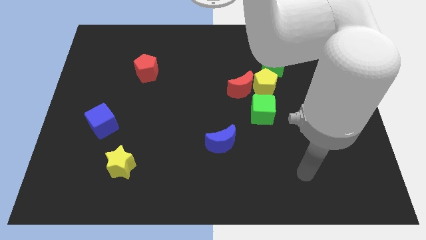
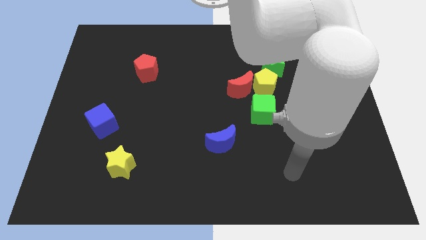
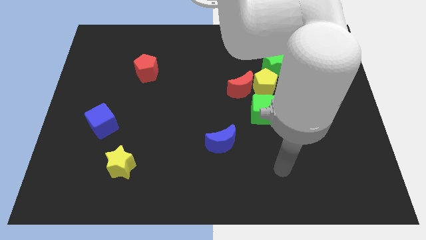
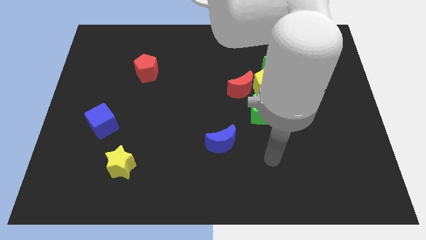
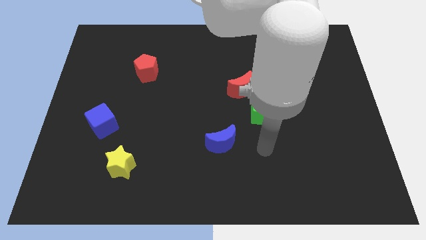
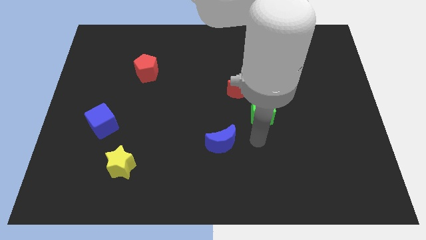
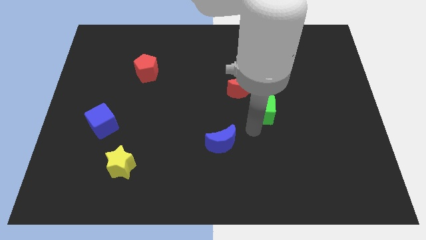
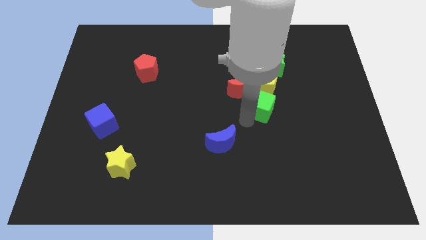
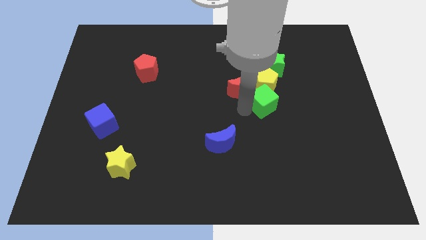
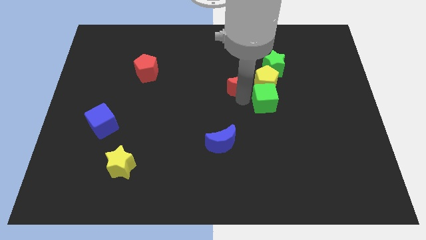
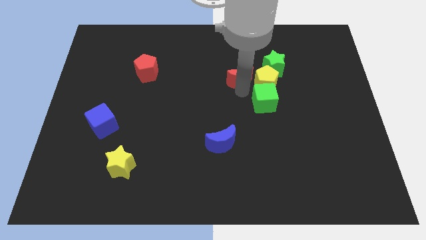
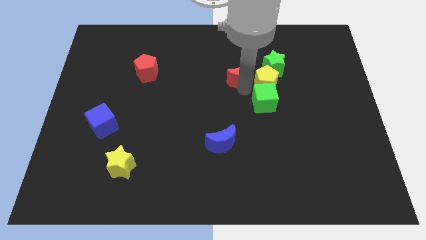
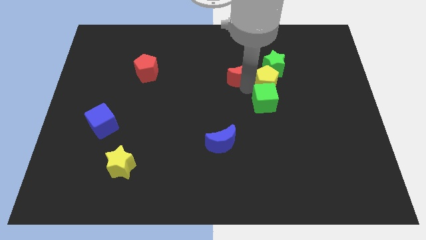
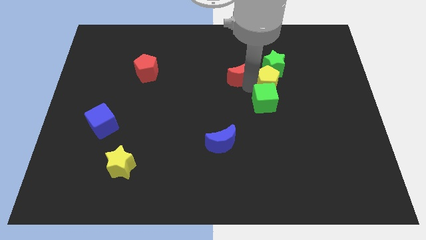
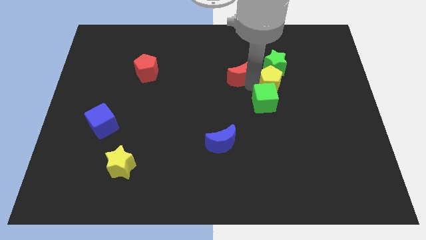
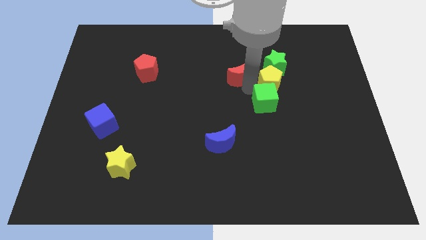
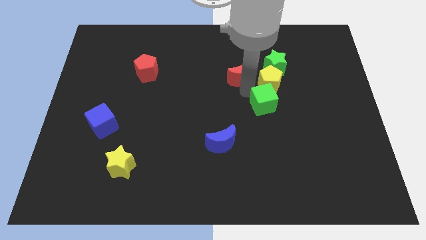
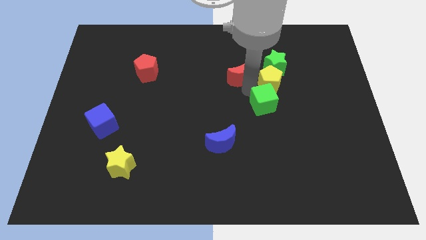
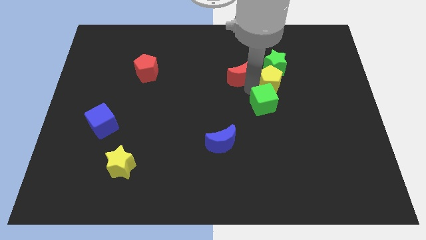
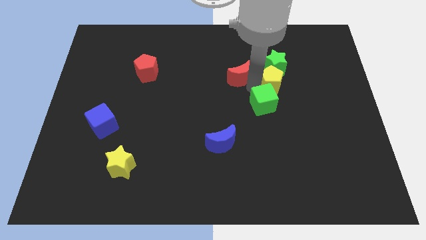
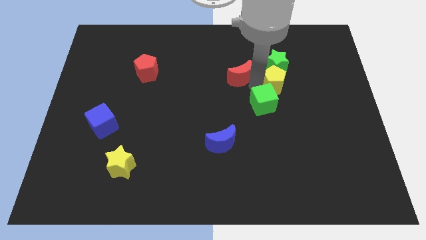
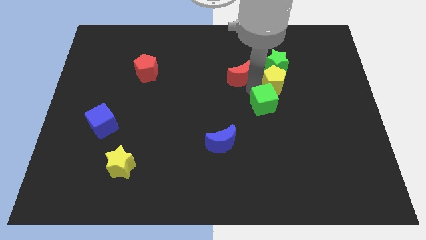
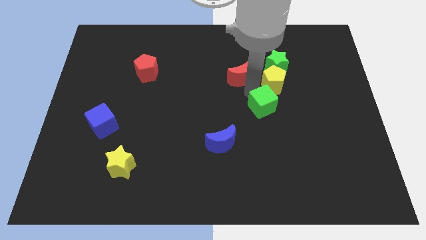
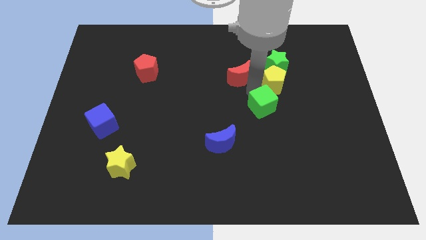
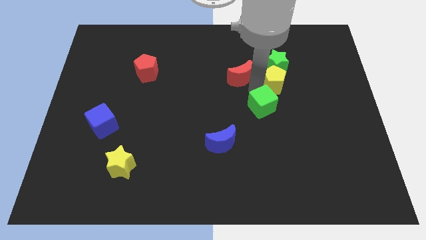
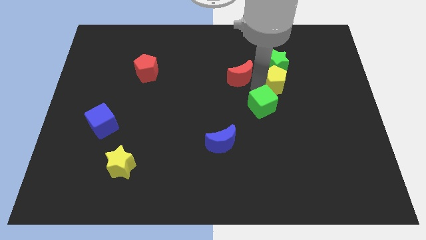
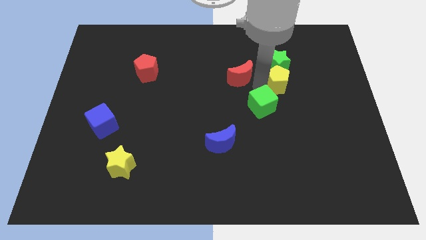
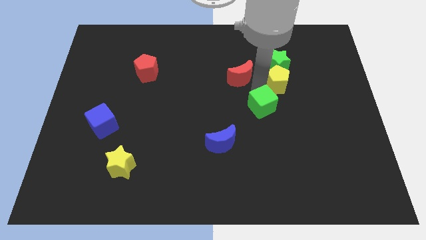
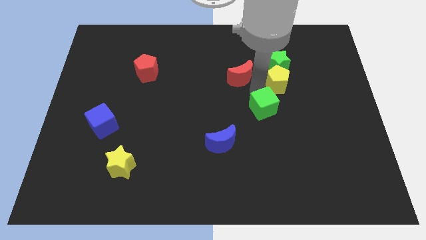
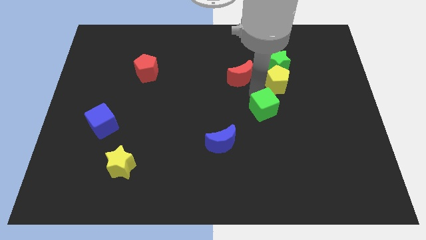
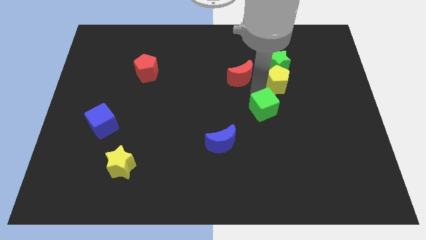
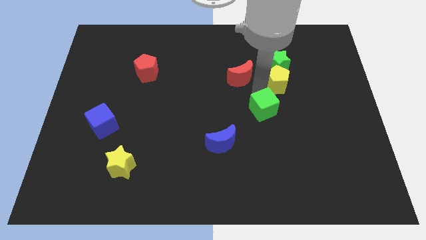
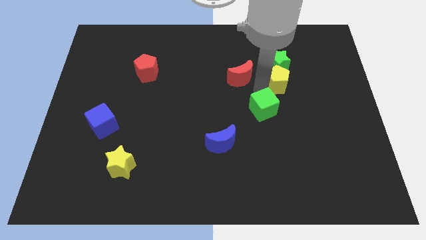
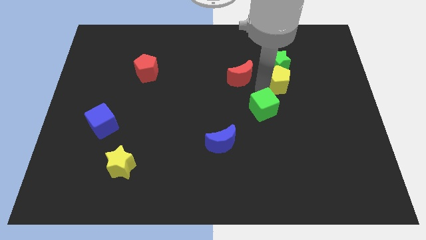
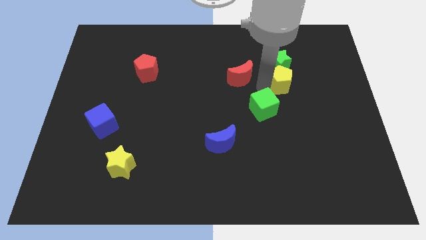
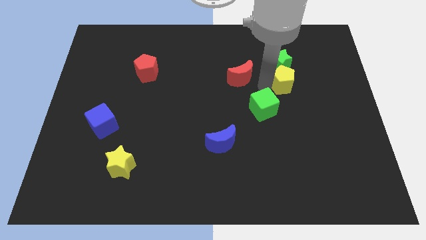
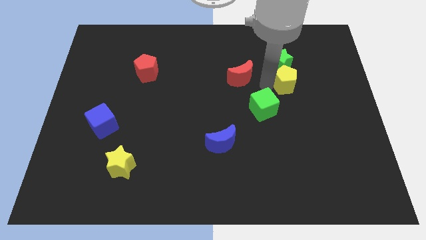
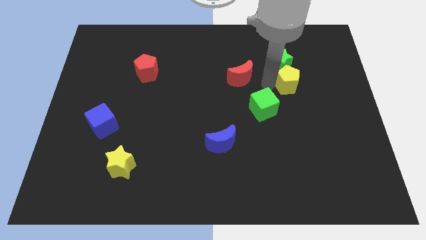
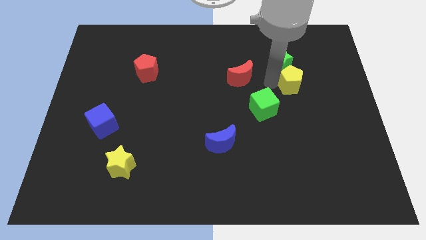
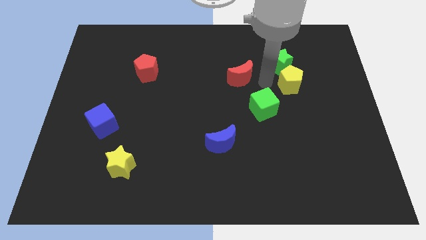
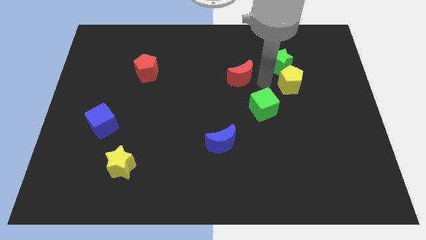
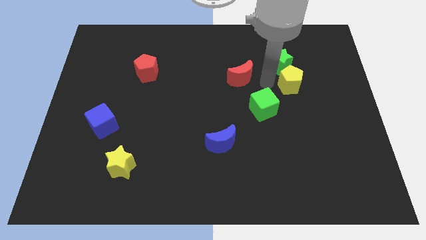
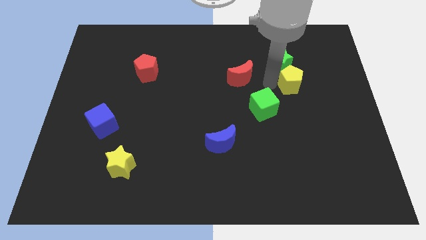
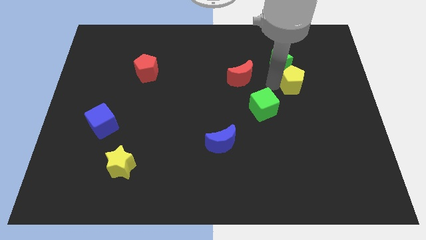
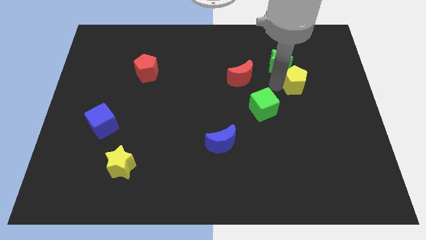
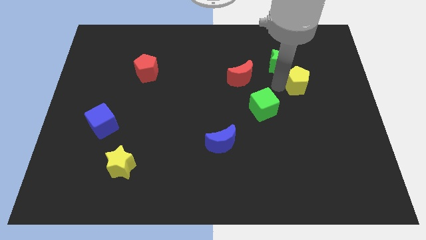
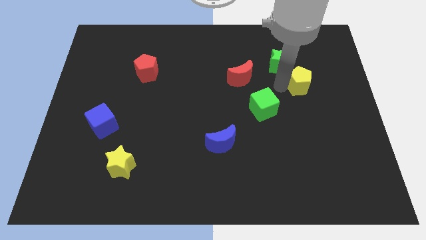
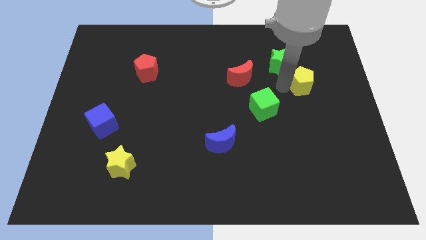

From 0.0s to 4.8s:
pull the yellow pentagon apart from the group

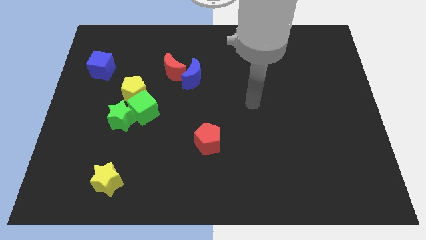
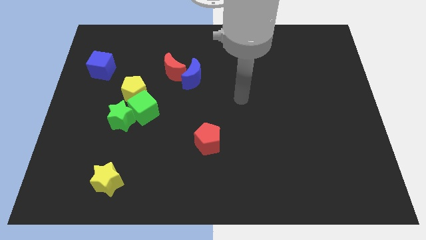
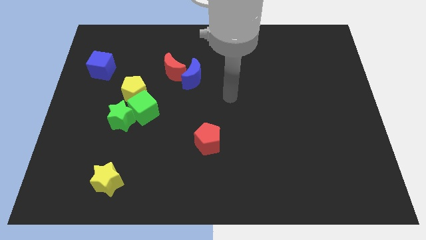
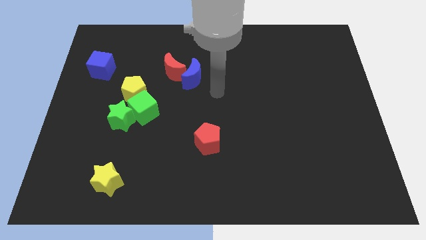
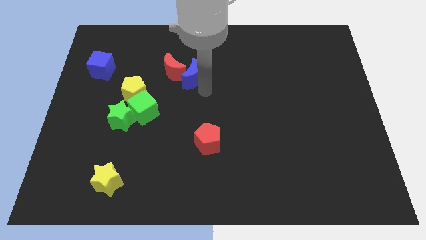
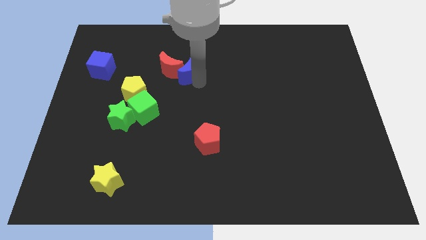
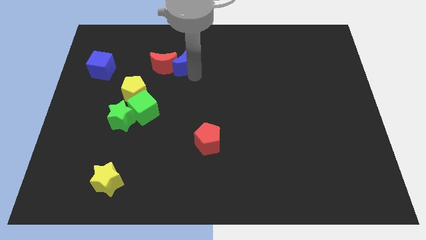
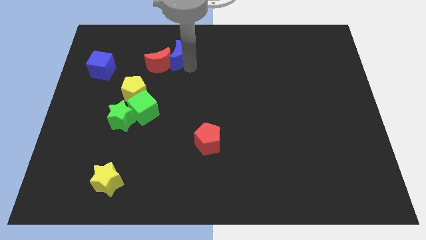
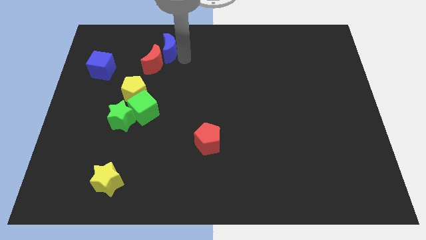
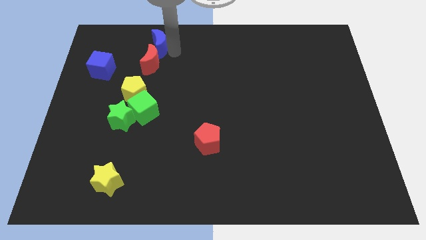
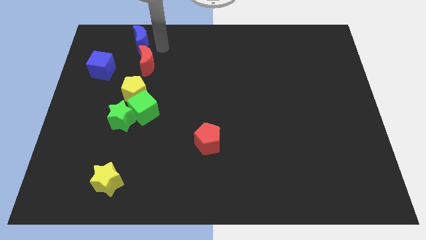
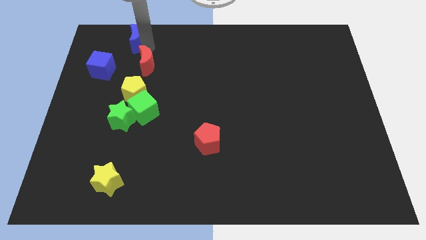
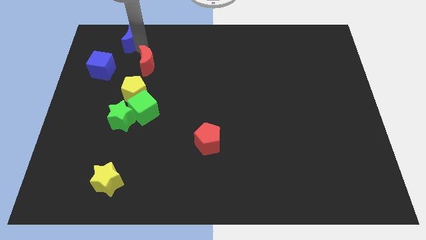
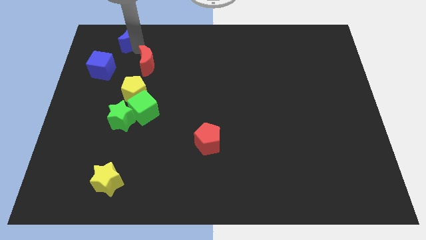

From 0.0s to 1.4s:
separate the red moon from the blue moon

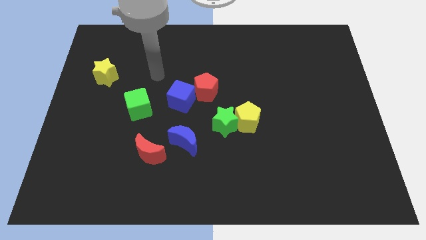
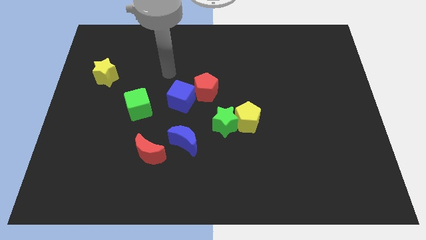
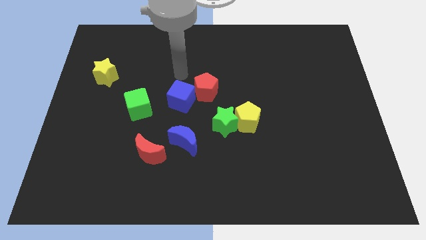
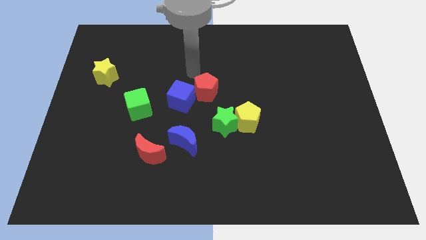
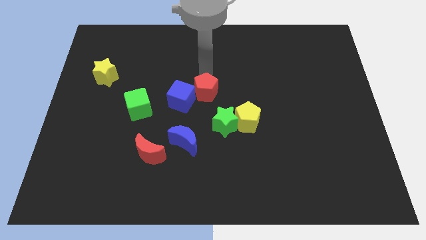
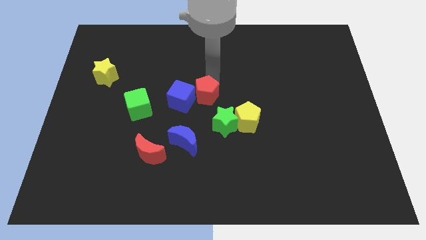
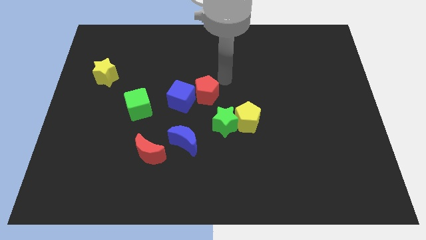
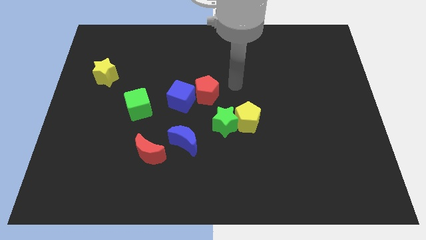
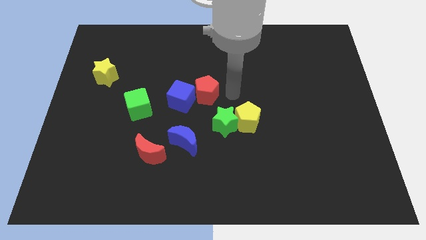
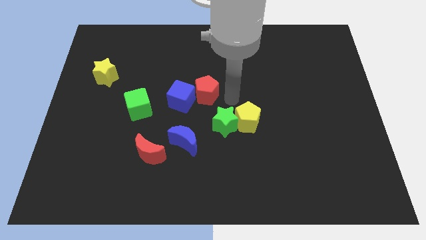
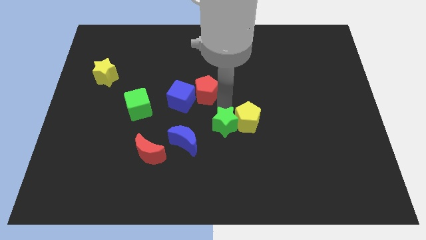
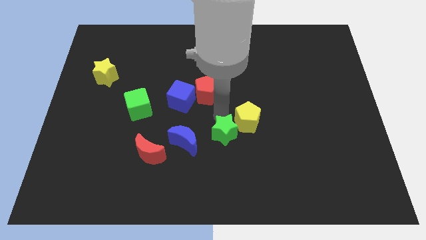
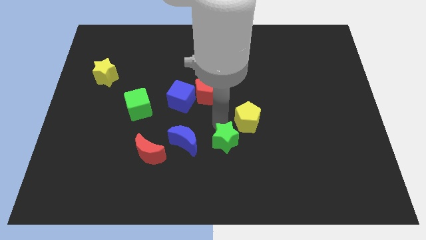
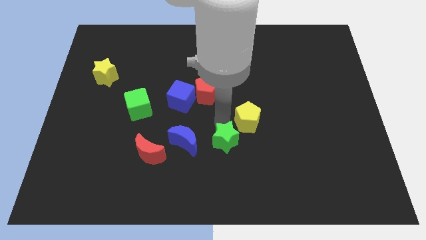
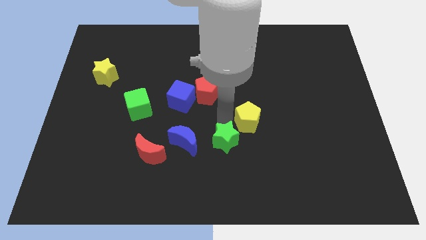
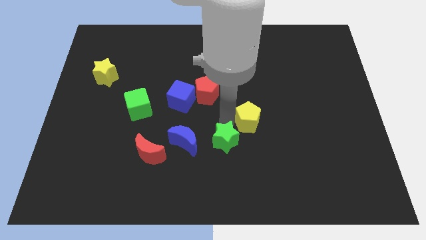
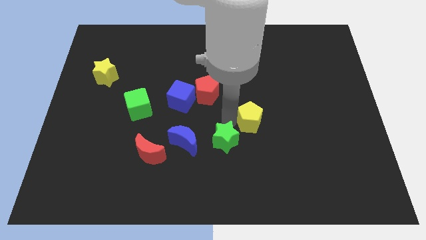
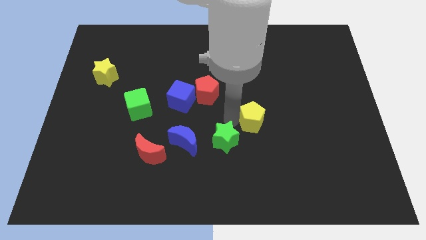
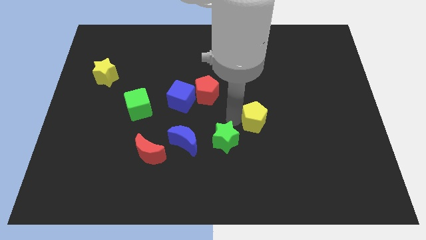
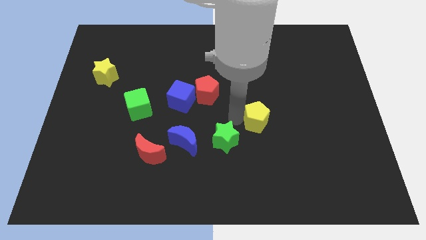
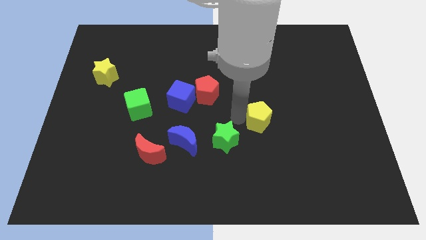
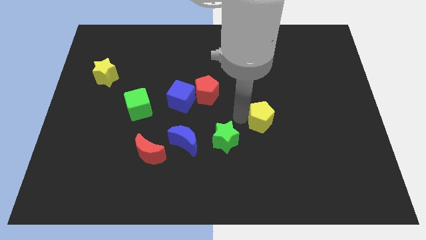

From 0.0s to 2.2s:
pull the yellow pentagon apart from the green star

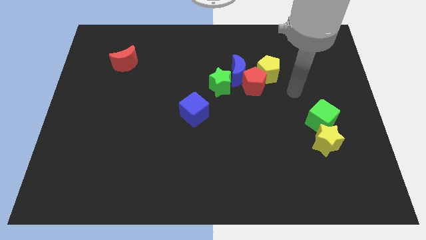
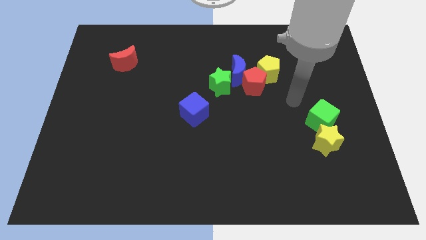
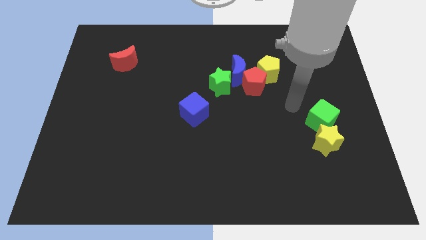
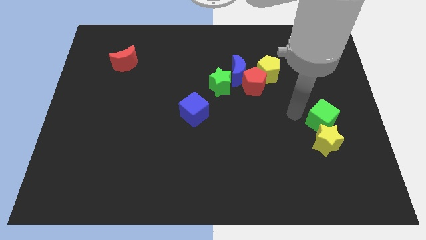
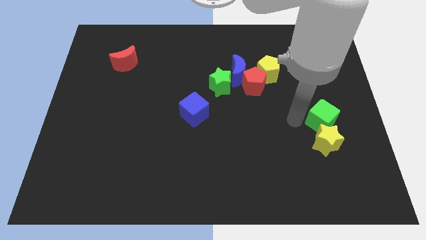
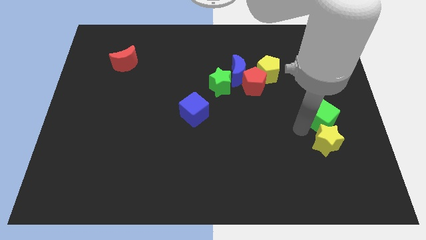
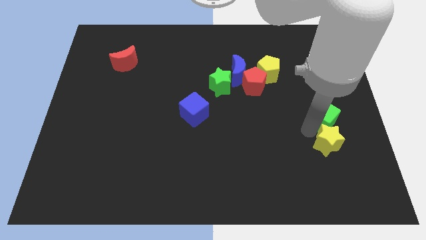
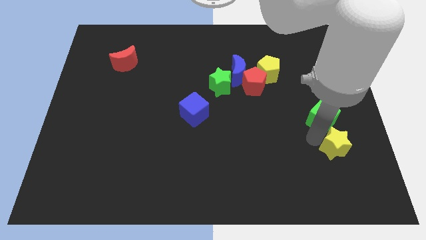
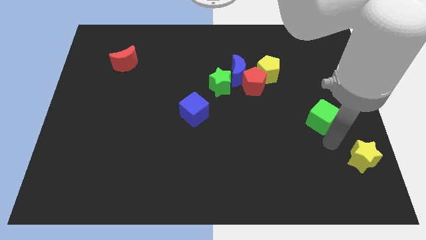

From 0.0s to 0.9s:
move the green cube away from the yellow star
